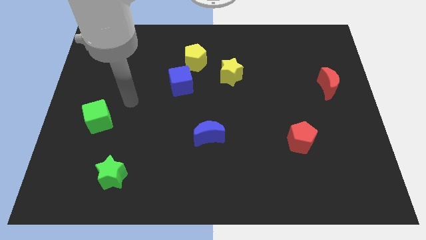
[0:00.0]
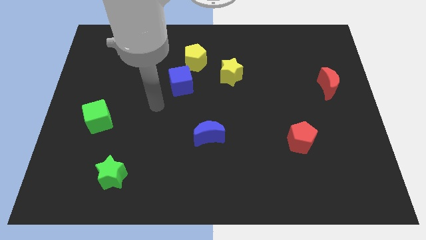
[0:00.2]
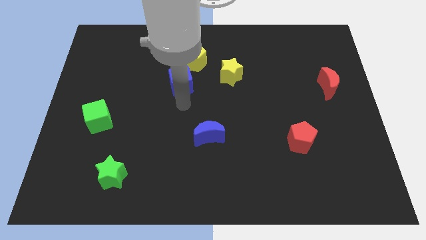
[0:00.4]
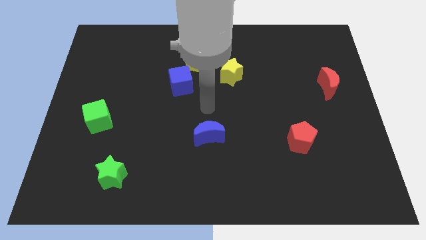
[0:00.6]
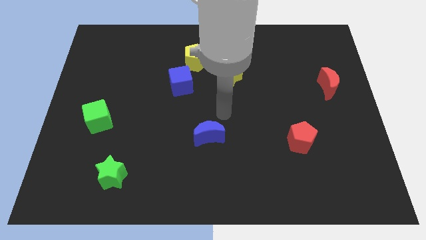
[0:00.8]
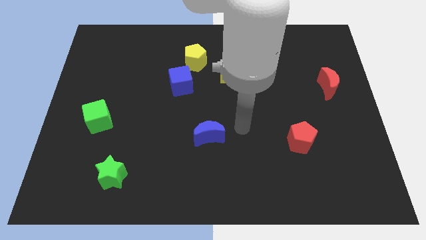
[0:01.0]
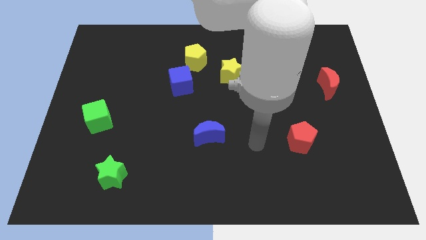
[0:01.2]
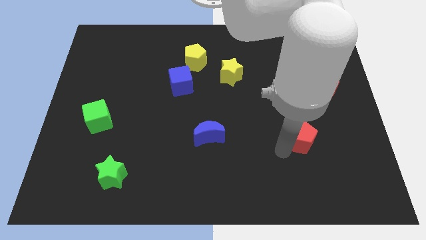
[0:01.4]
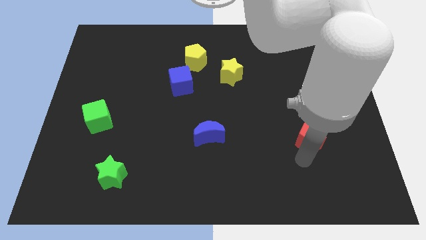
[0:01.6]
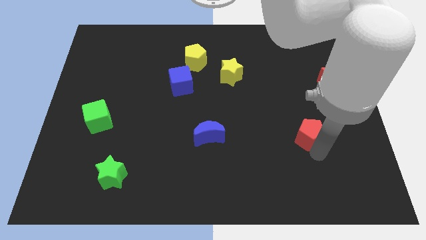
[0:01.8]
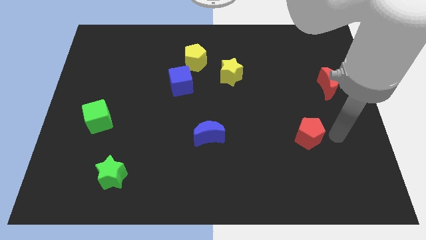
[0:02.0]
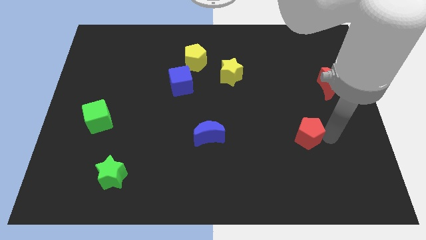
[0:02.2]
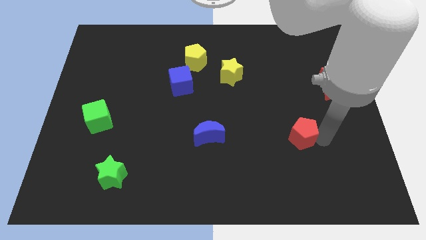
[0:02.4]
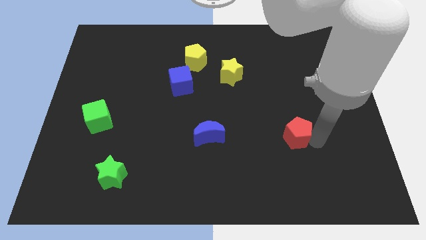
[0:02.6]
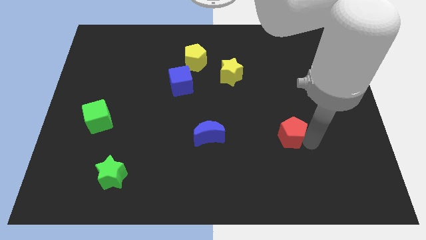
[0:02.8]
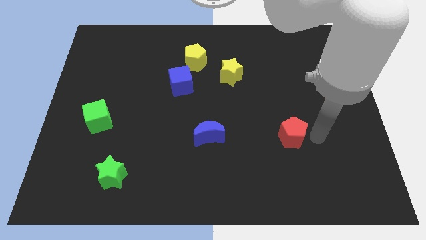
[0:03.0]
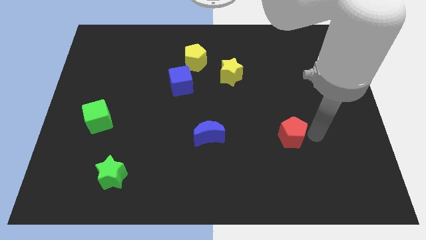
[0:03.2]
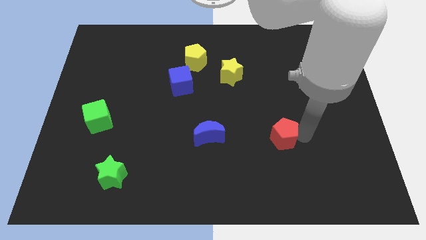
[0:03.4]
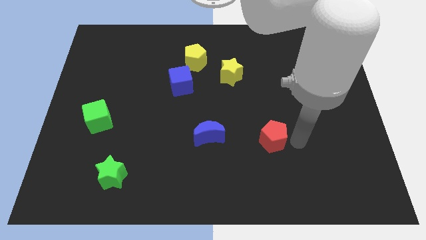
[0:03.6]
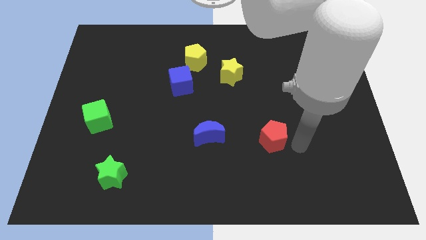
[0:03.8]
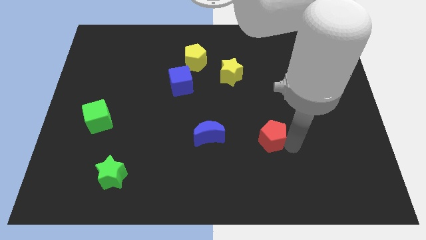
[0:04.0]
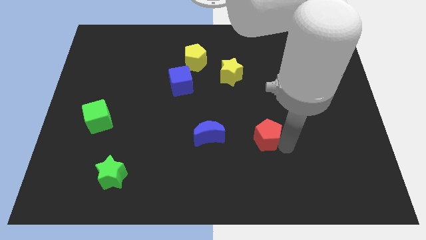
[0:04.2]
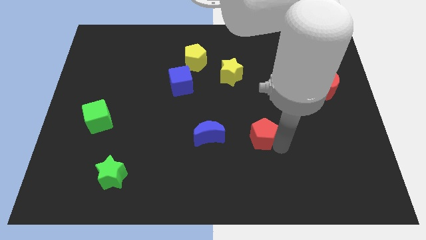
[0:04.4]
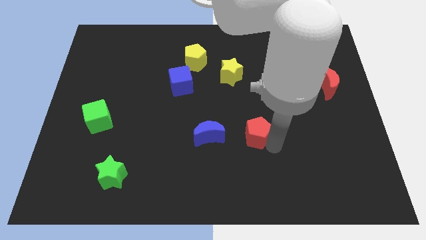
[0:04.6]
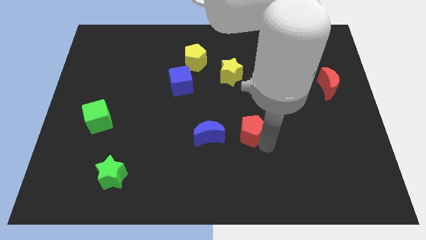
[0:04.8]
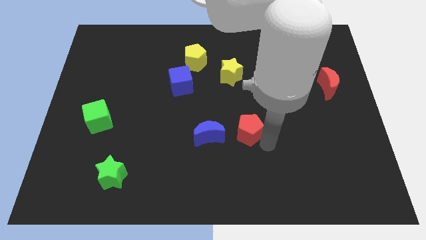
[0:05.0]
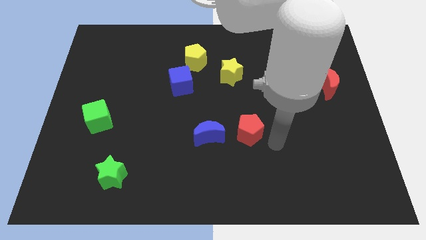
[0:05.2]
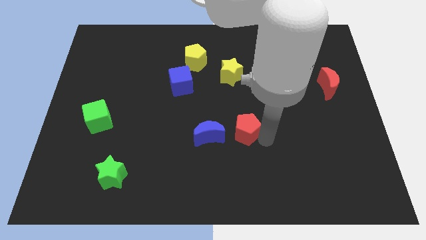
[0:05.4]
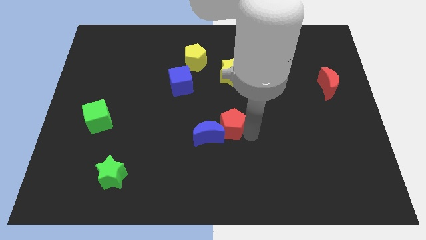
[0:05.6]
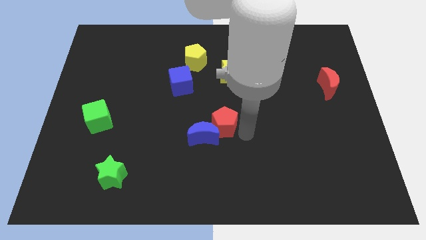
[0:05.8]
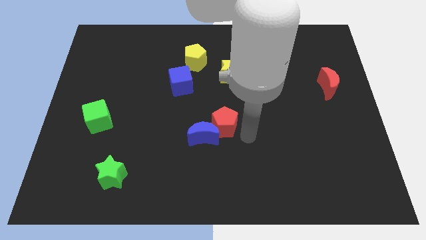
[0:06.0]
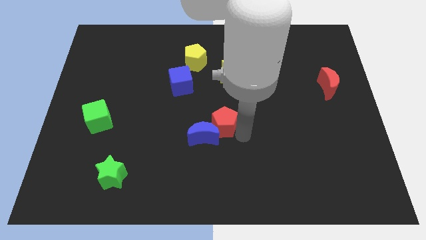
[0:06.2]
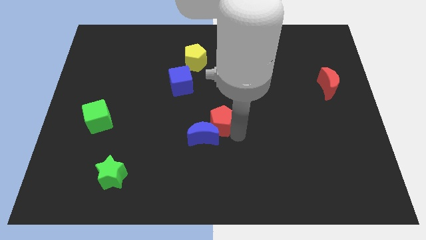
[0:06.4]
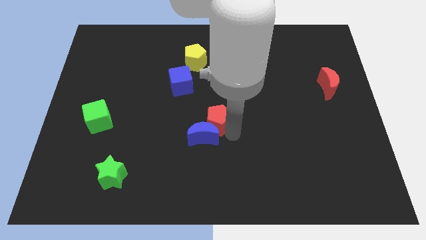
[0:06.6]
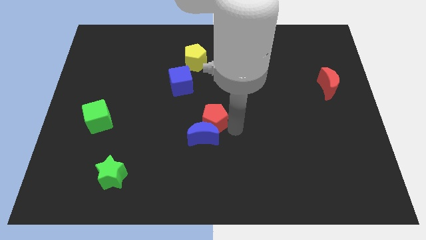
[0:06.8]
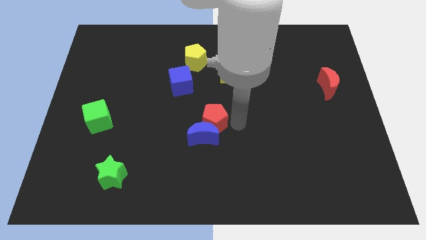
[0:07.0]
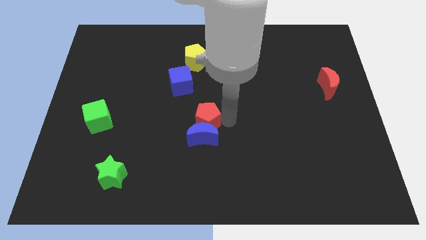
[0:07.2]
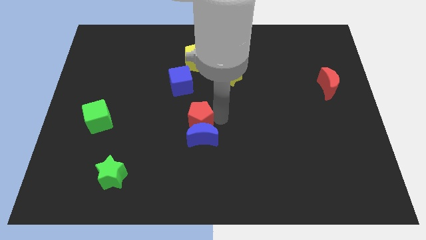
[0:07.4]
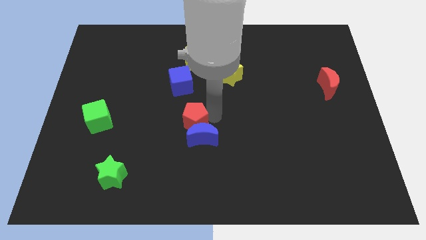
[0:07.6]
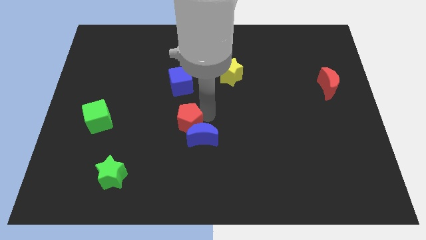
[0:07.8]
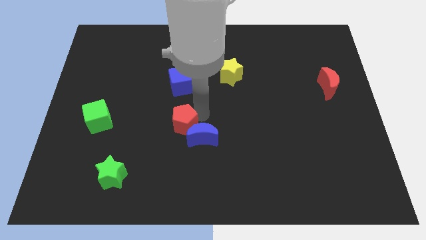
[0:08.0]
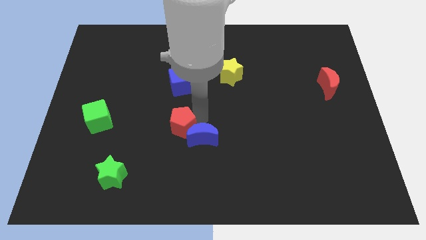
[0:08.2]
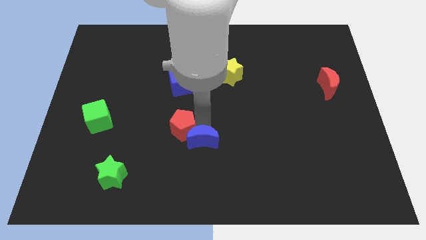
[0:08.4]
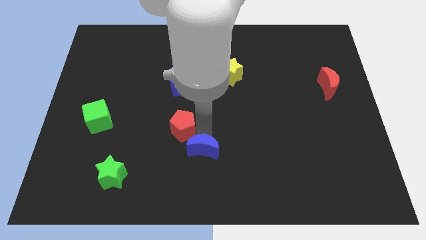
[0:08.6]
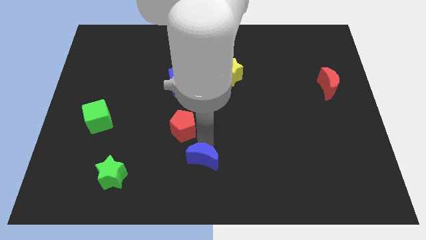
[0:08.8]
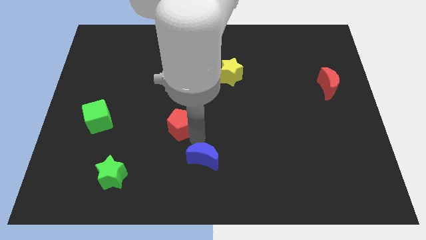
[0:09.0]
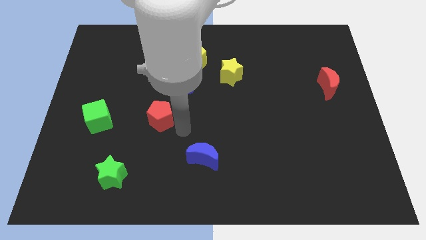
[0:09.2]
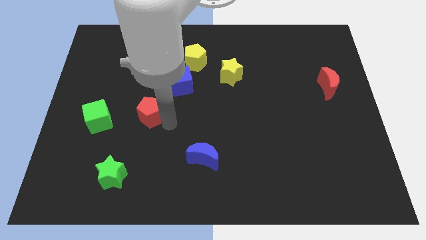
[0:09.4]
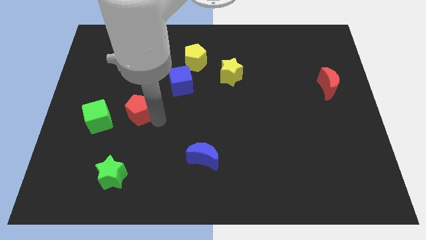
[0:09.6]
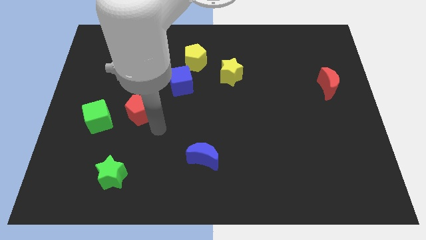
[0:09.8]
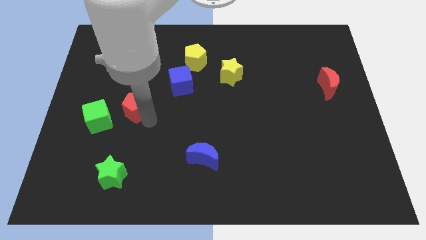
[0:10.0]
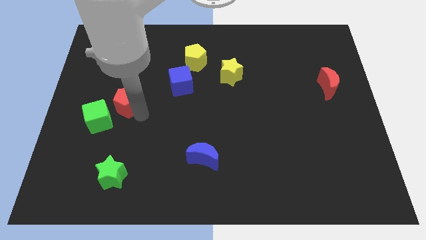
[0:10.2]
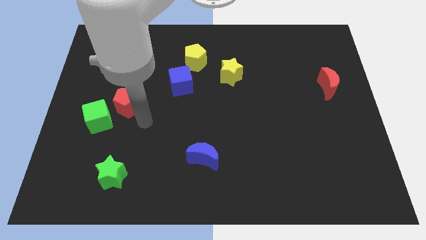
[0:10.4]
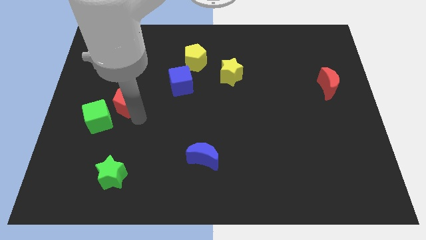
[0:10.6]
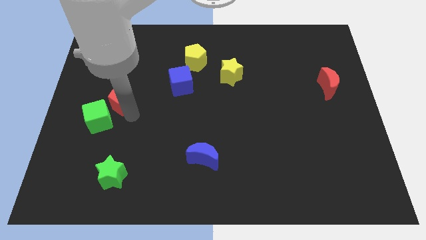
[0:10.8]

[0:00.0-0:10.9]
slide the red pentagon to the top of the green cube

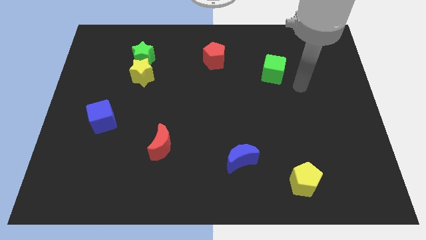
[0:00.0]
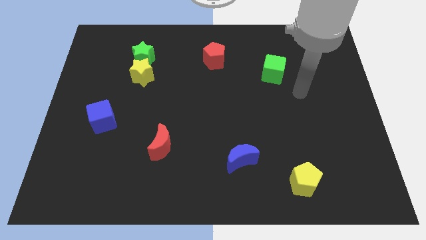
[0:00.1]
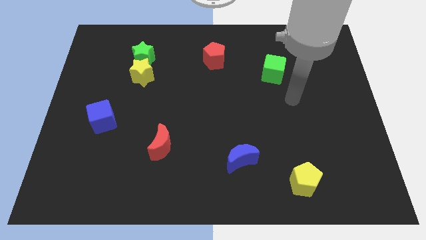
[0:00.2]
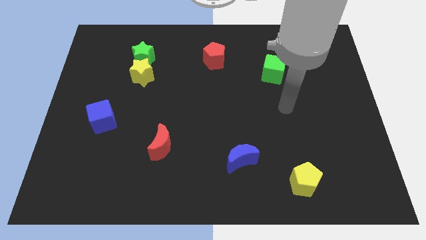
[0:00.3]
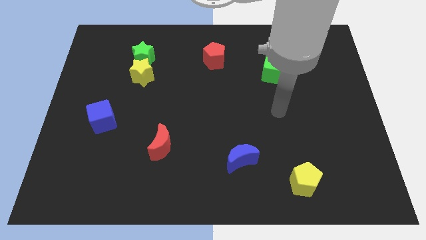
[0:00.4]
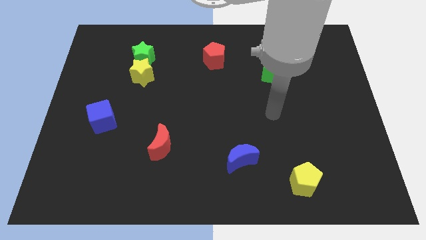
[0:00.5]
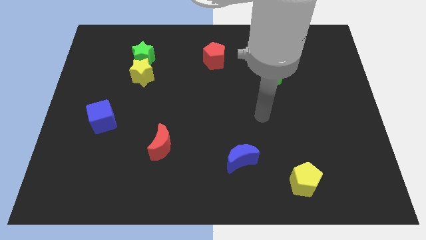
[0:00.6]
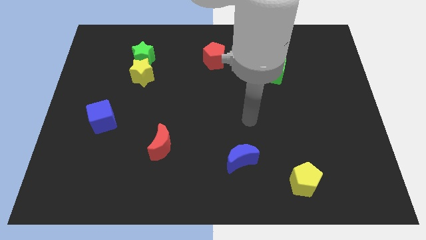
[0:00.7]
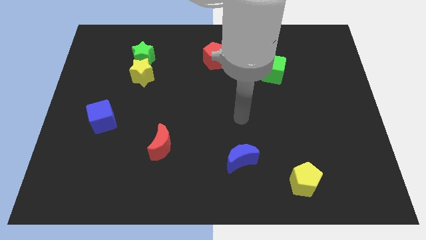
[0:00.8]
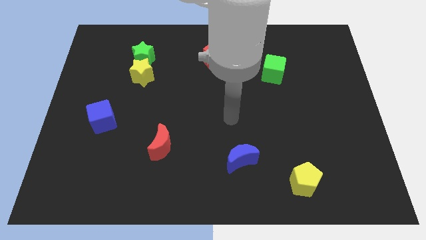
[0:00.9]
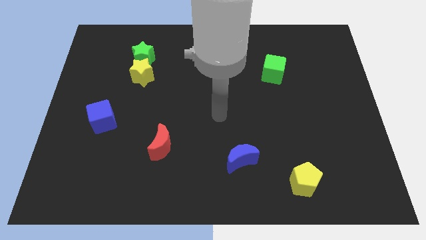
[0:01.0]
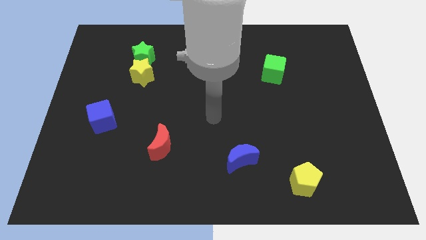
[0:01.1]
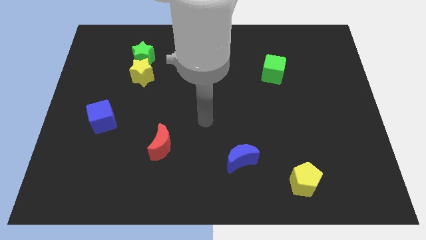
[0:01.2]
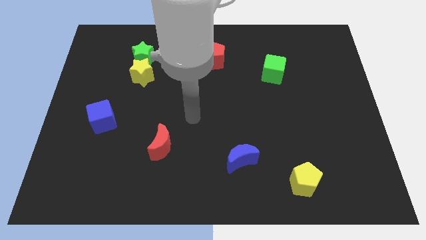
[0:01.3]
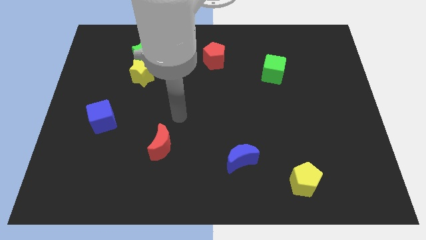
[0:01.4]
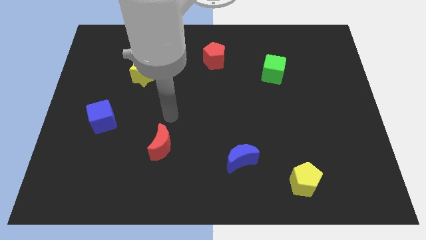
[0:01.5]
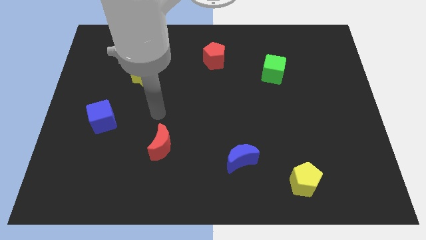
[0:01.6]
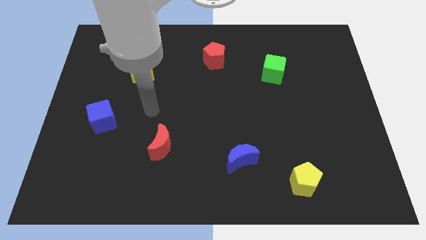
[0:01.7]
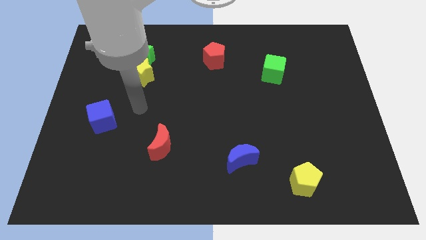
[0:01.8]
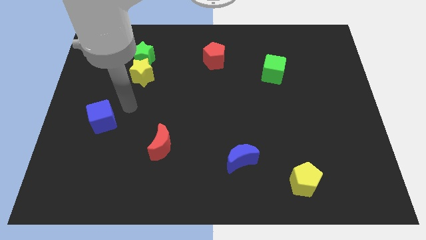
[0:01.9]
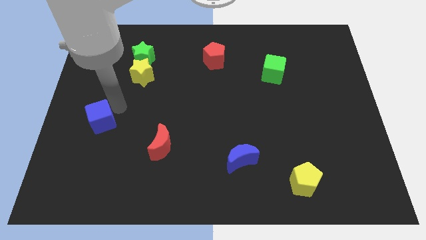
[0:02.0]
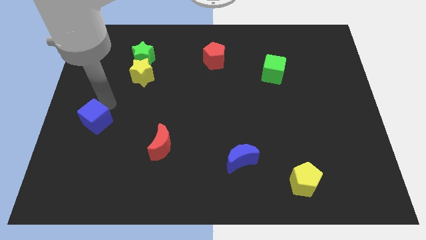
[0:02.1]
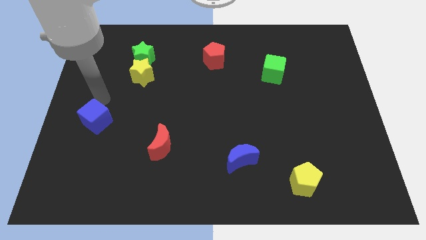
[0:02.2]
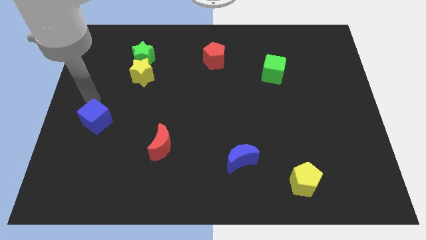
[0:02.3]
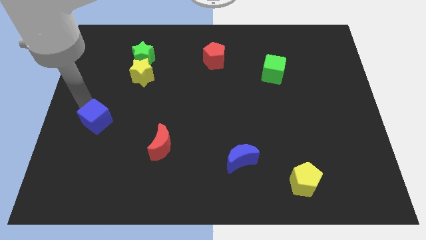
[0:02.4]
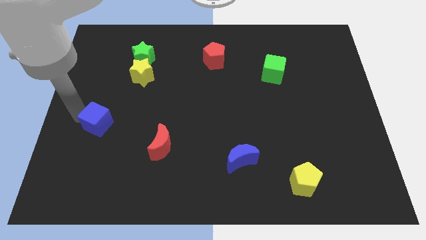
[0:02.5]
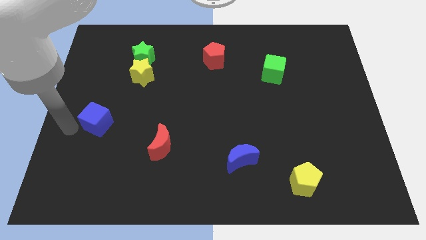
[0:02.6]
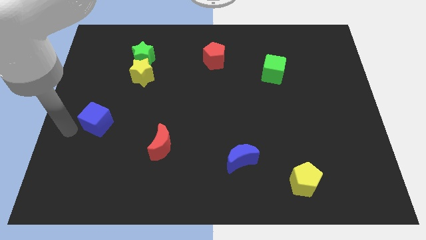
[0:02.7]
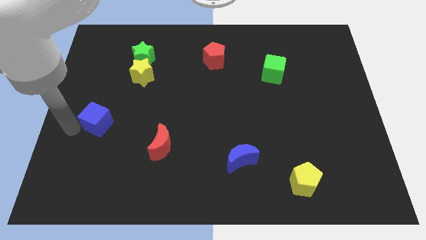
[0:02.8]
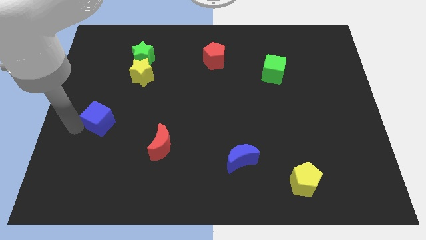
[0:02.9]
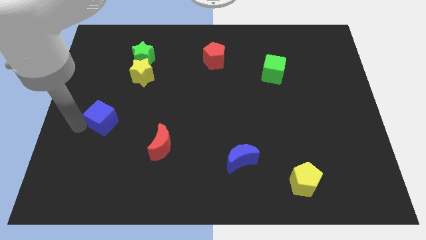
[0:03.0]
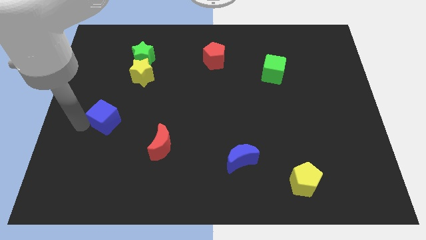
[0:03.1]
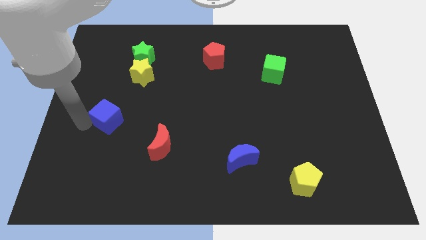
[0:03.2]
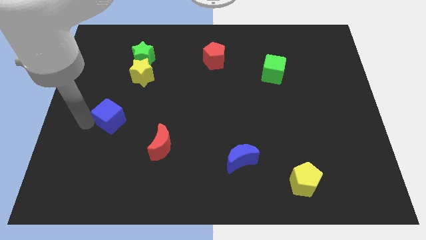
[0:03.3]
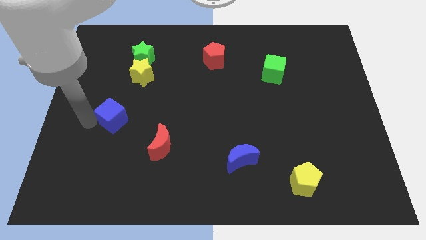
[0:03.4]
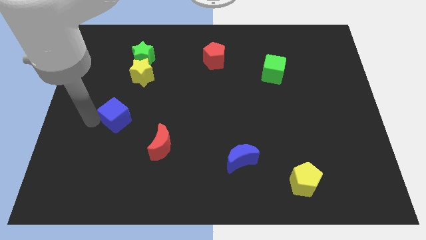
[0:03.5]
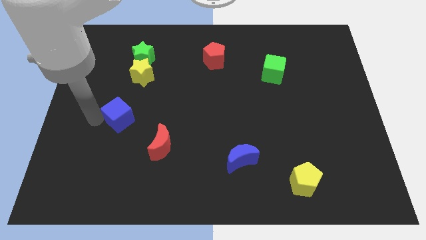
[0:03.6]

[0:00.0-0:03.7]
push the blue cube to the bottom of the yellow star
